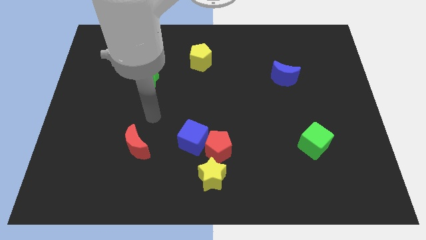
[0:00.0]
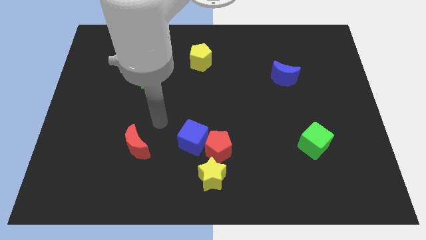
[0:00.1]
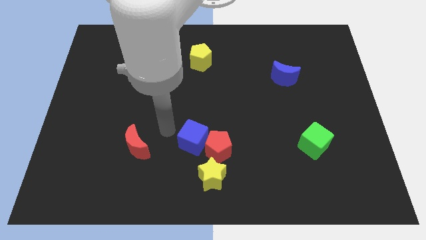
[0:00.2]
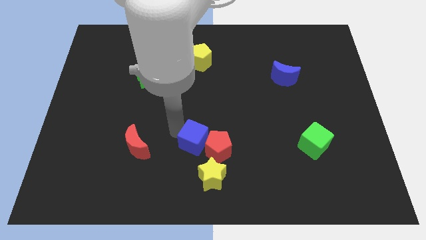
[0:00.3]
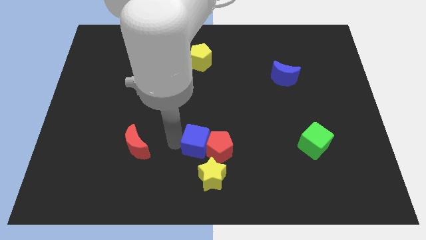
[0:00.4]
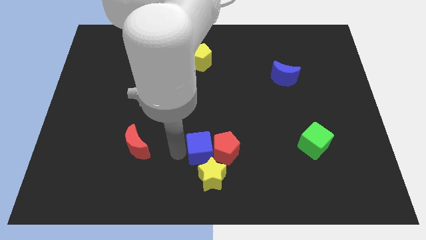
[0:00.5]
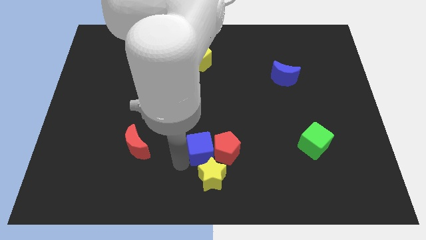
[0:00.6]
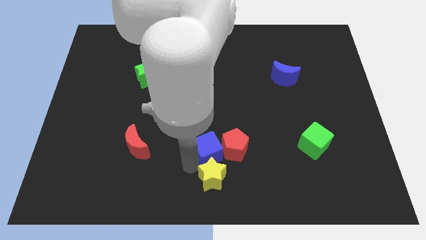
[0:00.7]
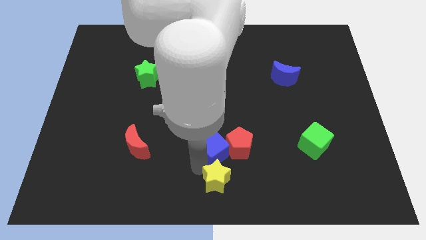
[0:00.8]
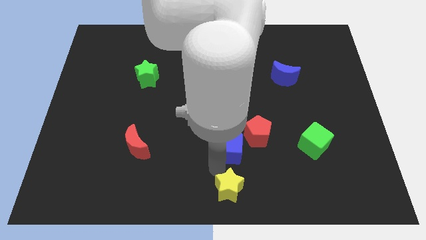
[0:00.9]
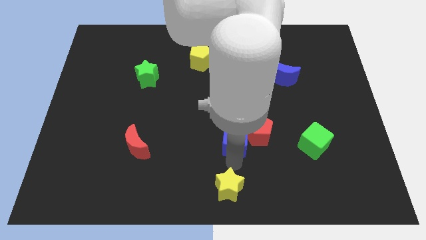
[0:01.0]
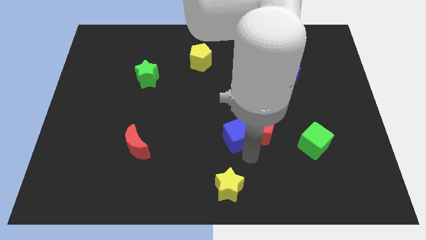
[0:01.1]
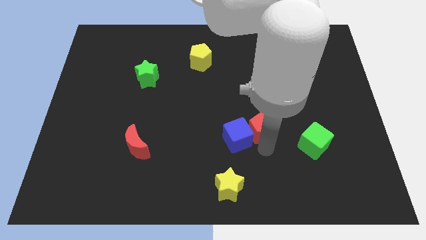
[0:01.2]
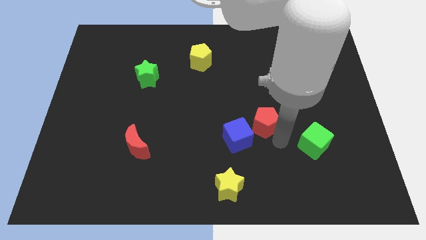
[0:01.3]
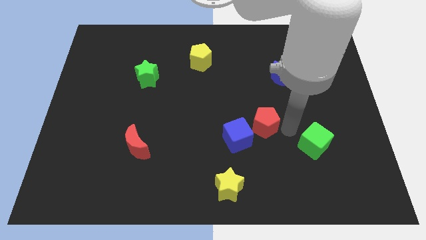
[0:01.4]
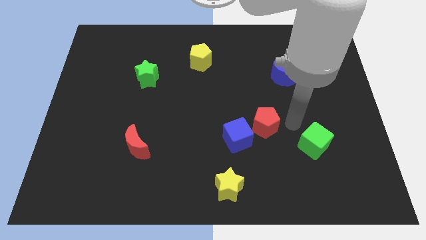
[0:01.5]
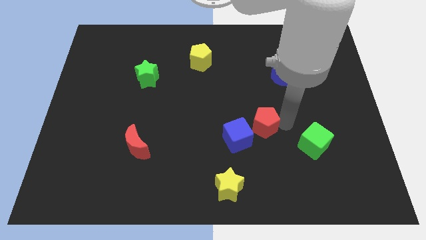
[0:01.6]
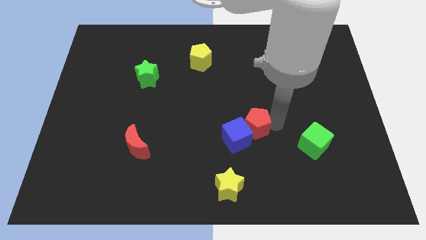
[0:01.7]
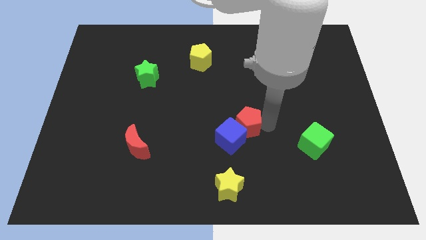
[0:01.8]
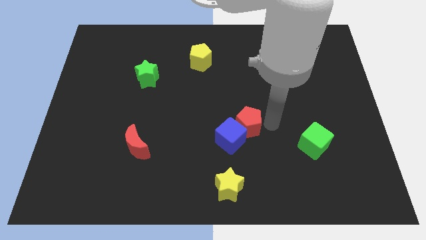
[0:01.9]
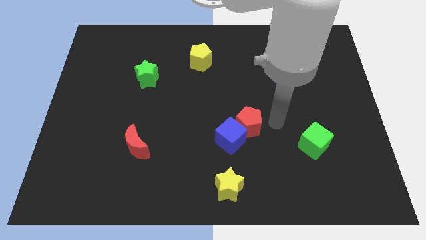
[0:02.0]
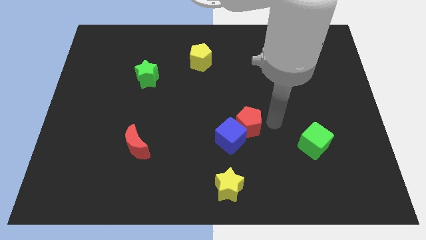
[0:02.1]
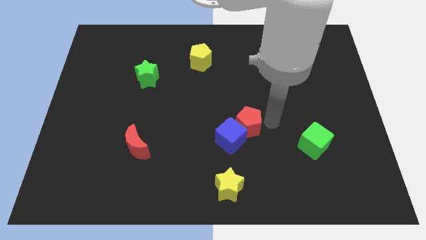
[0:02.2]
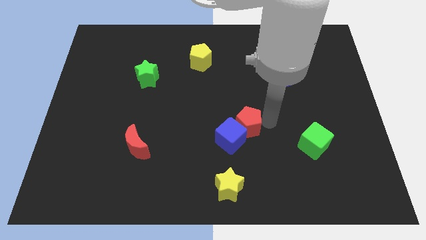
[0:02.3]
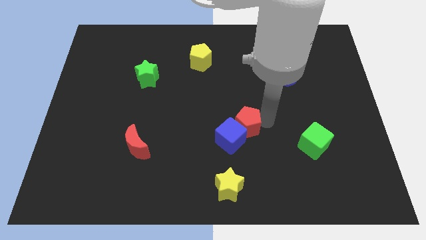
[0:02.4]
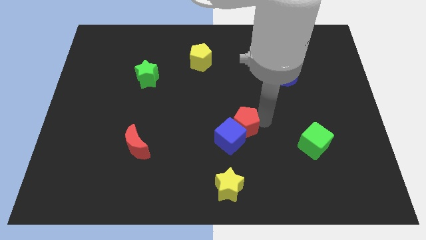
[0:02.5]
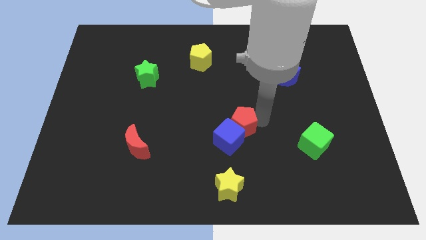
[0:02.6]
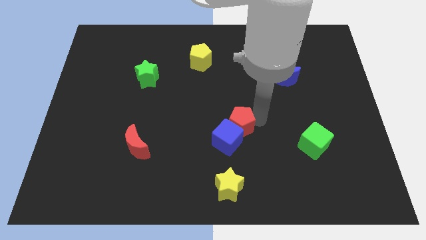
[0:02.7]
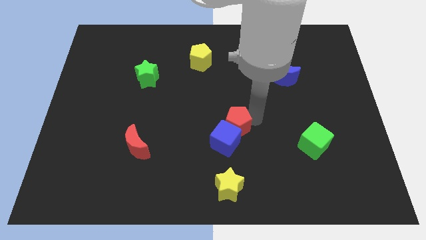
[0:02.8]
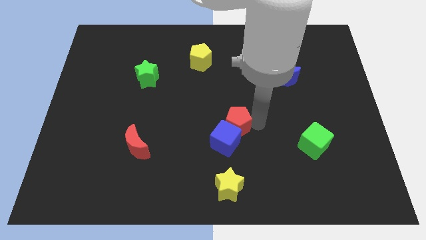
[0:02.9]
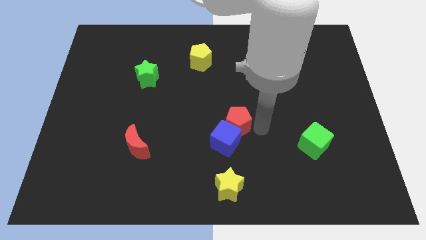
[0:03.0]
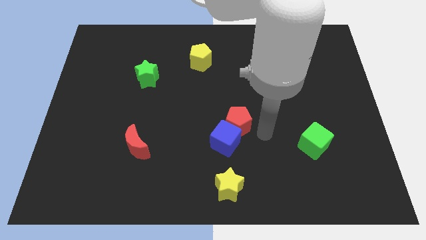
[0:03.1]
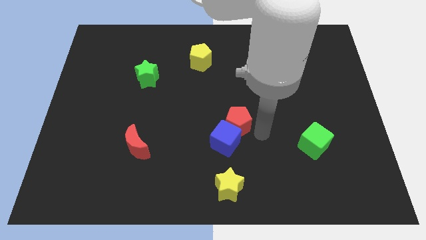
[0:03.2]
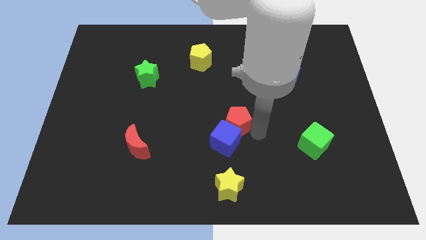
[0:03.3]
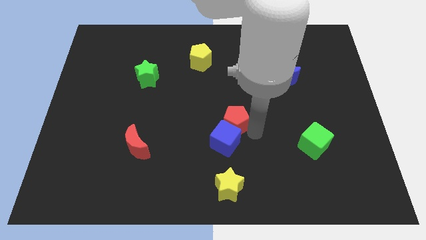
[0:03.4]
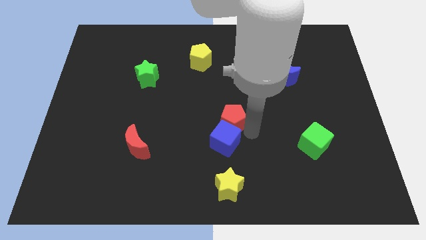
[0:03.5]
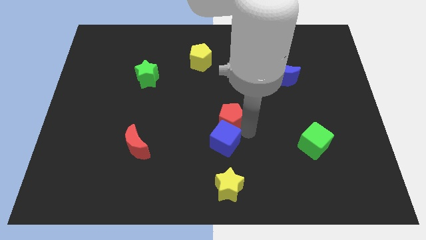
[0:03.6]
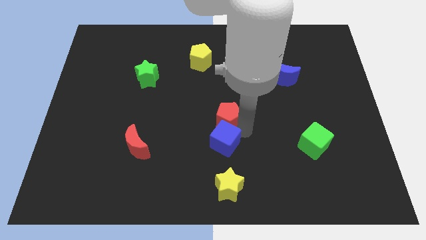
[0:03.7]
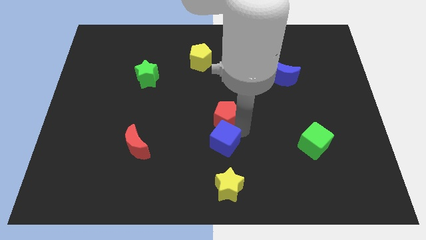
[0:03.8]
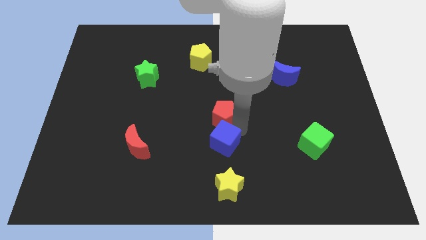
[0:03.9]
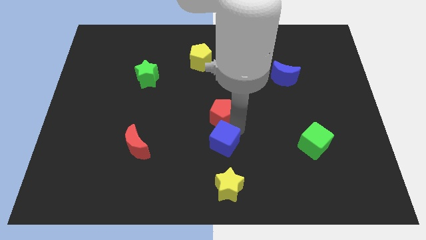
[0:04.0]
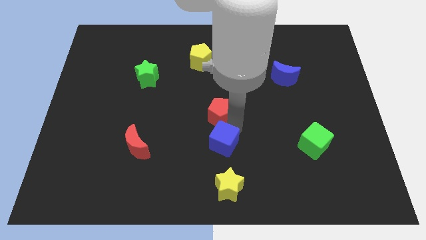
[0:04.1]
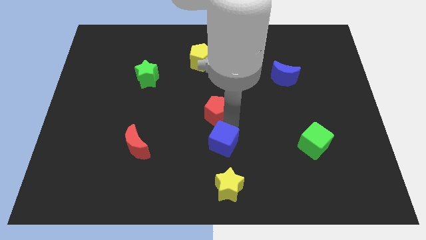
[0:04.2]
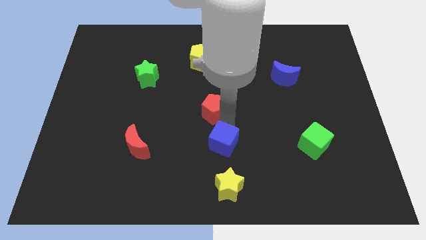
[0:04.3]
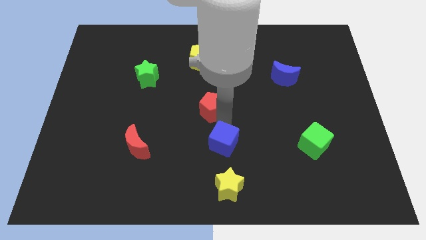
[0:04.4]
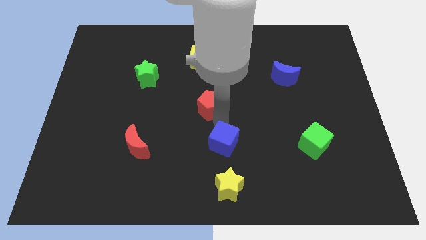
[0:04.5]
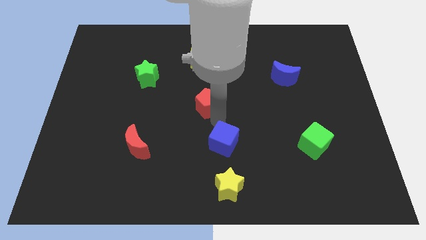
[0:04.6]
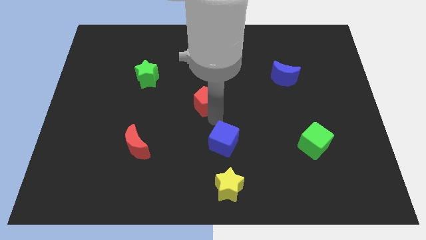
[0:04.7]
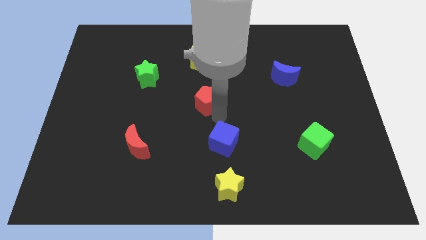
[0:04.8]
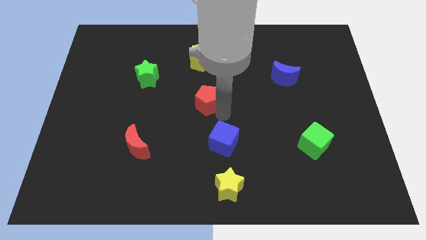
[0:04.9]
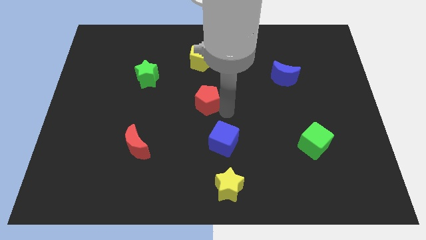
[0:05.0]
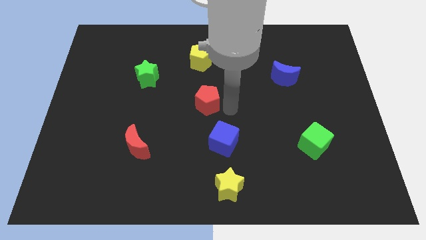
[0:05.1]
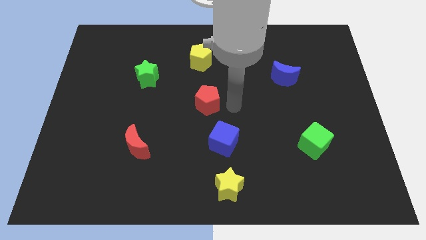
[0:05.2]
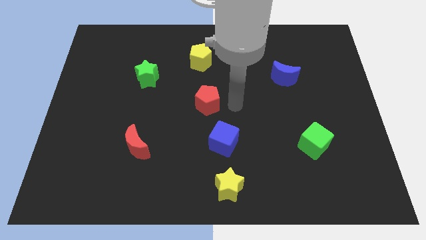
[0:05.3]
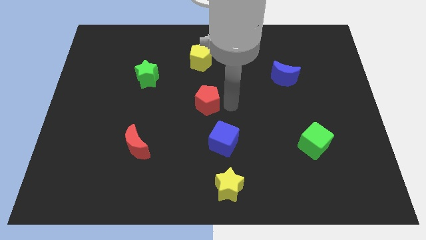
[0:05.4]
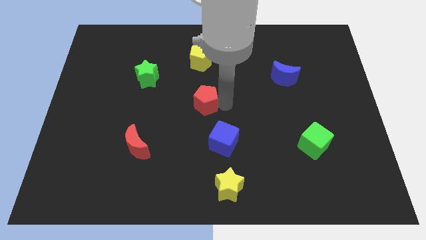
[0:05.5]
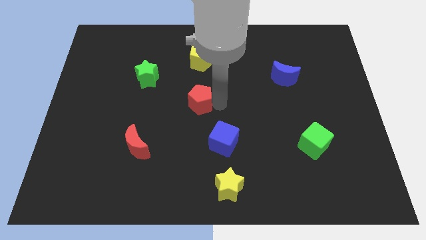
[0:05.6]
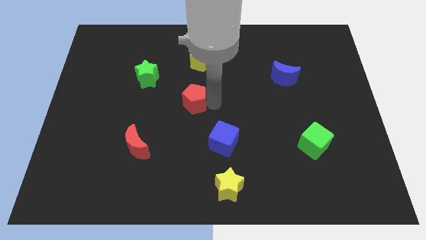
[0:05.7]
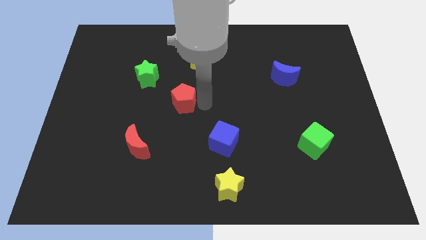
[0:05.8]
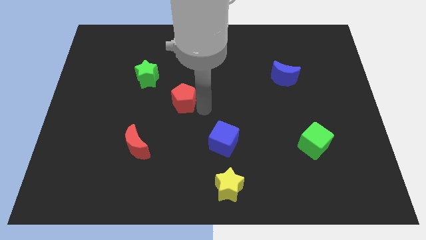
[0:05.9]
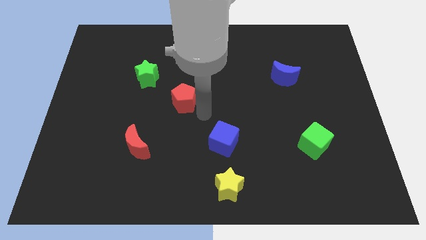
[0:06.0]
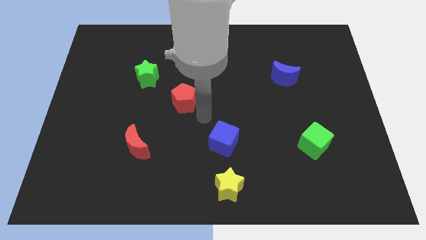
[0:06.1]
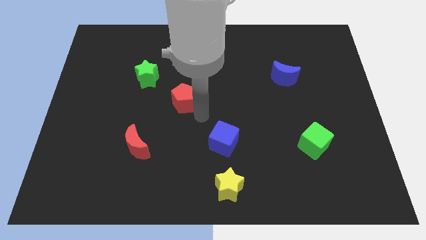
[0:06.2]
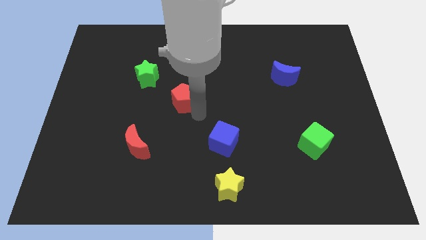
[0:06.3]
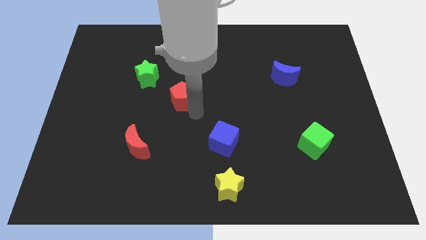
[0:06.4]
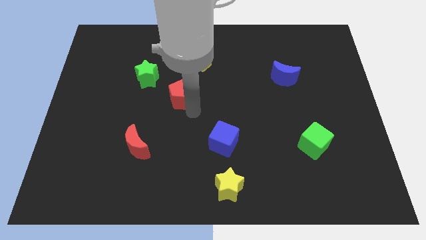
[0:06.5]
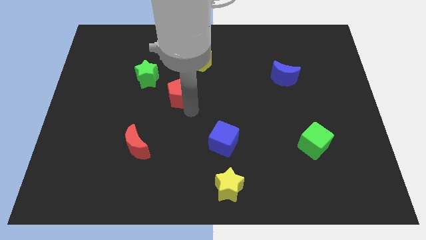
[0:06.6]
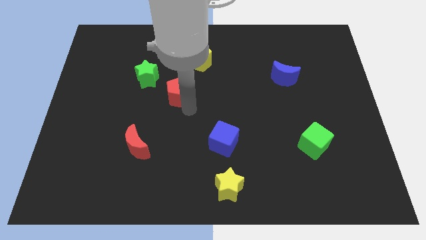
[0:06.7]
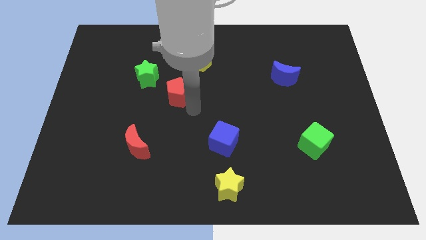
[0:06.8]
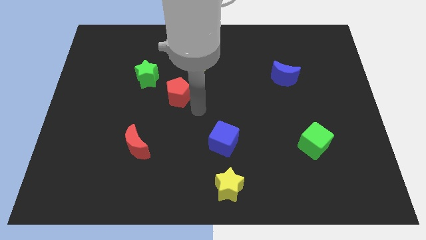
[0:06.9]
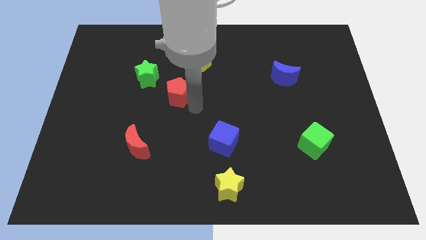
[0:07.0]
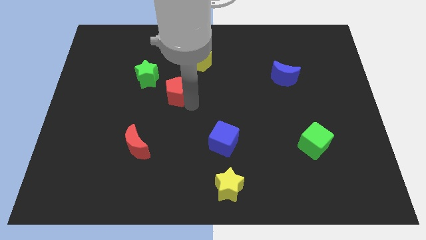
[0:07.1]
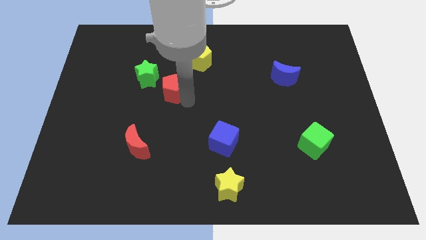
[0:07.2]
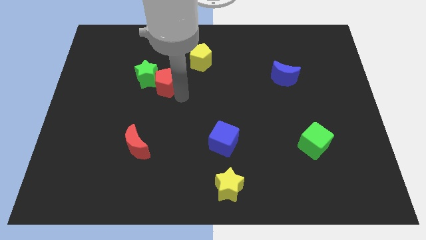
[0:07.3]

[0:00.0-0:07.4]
move the red pentagon towards the green star
